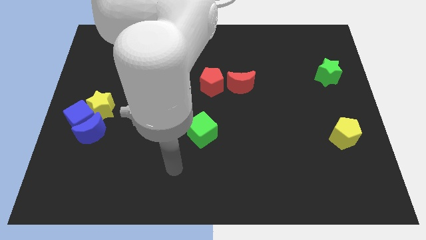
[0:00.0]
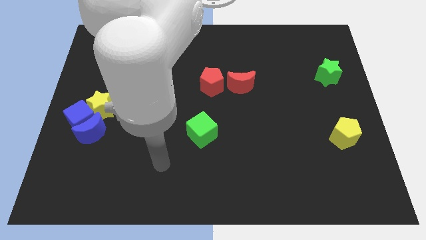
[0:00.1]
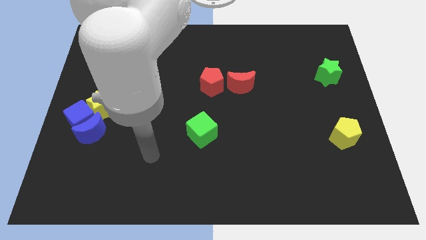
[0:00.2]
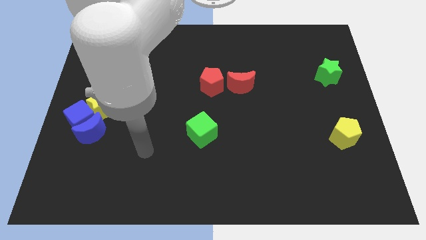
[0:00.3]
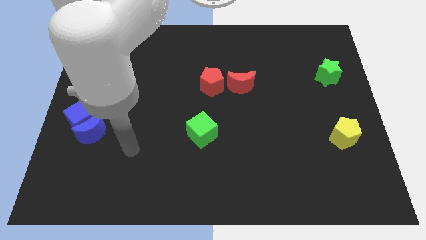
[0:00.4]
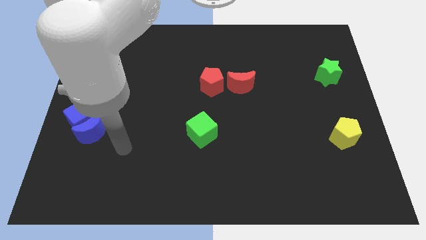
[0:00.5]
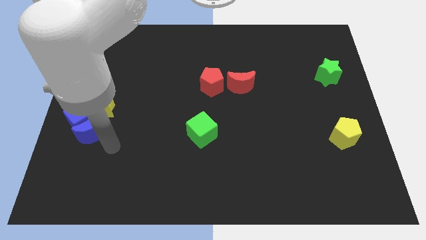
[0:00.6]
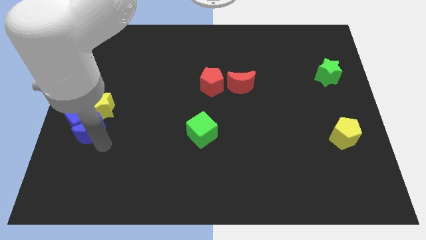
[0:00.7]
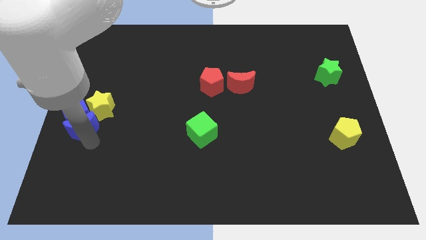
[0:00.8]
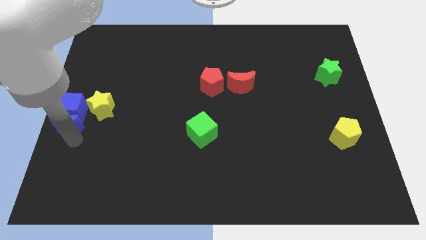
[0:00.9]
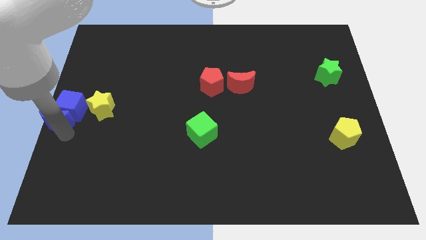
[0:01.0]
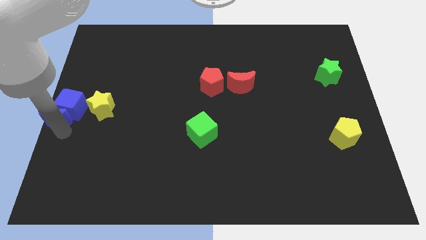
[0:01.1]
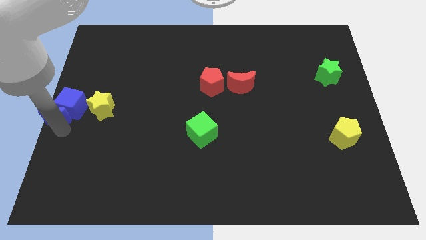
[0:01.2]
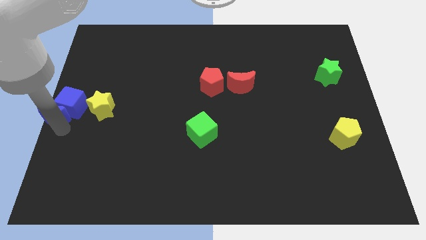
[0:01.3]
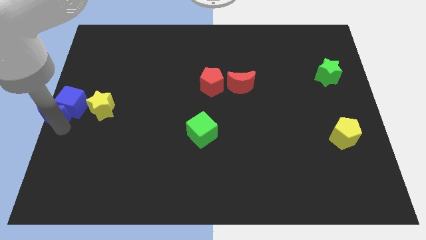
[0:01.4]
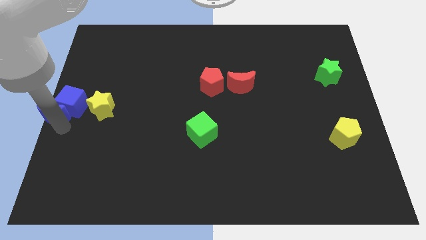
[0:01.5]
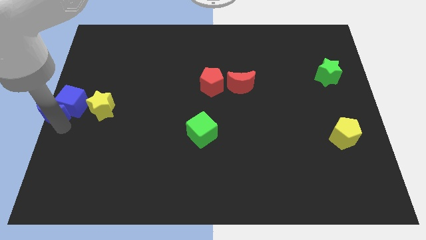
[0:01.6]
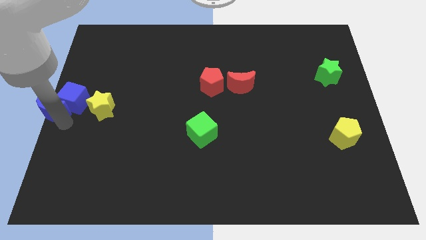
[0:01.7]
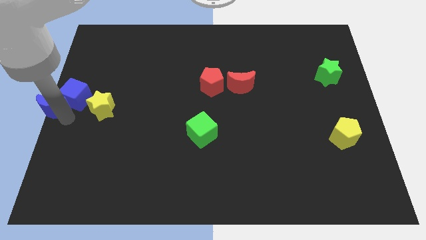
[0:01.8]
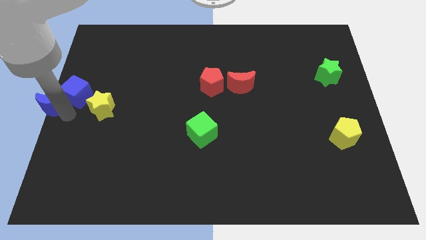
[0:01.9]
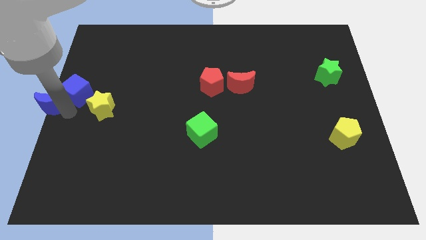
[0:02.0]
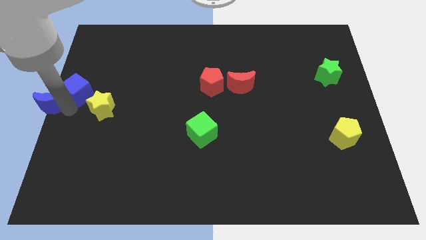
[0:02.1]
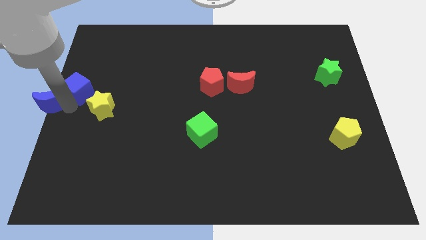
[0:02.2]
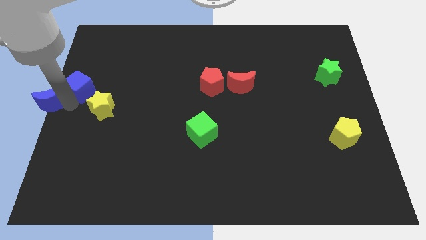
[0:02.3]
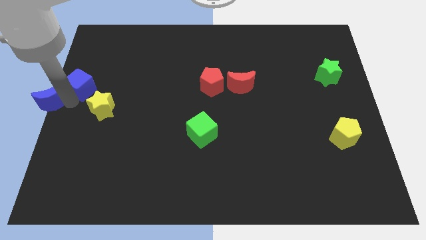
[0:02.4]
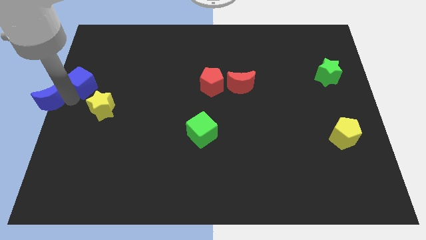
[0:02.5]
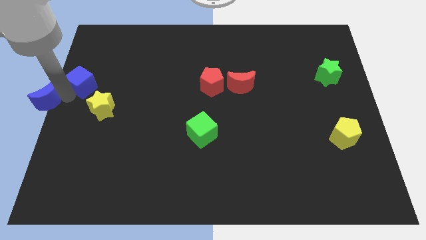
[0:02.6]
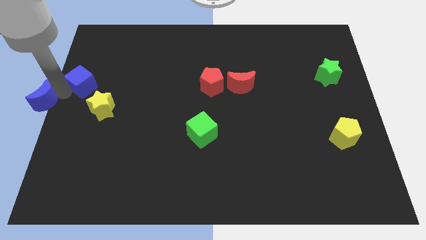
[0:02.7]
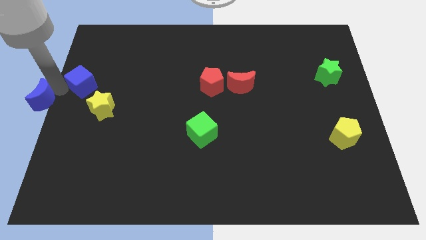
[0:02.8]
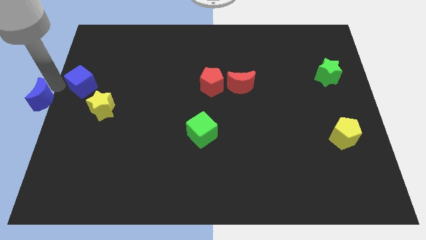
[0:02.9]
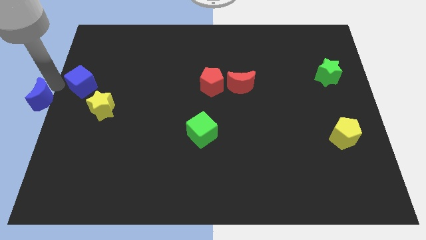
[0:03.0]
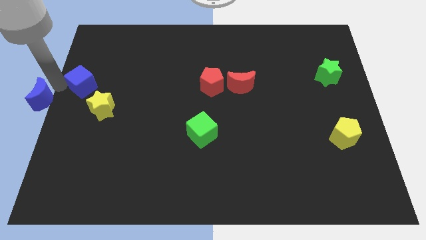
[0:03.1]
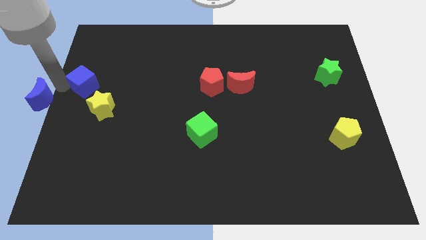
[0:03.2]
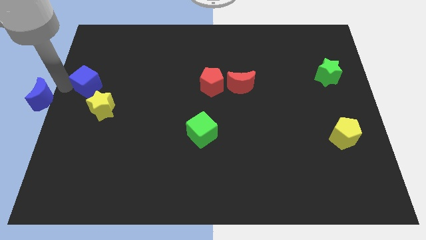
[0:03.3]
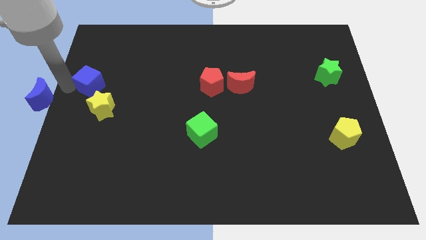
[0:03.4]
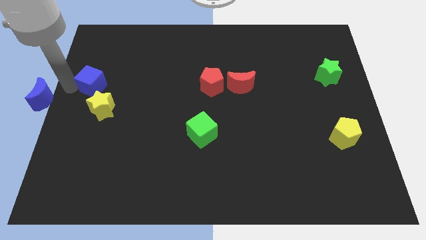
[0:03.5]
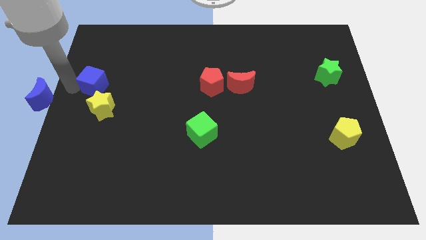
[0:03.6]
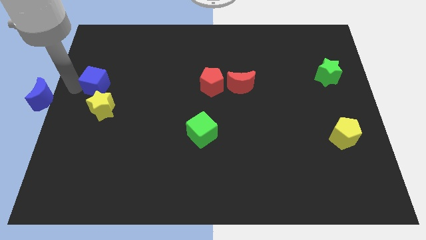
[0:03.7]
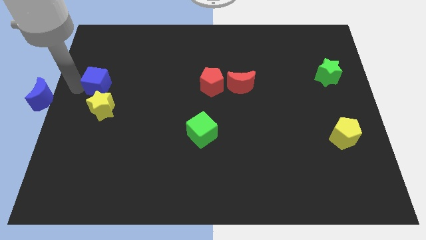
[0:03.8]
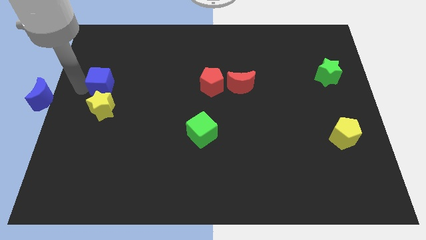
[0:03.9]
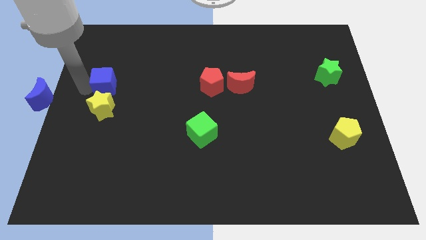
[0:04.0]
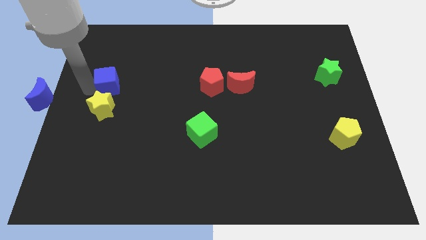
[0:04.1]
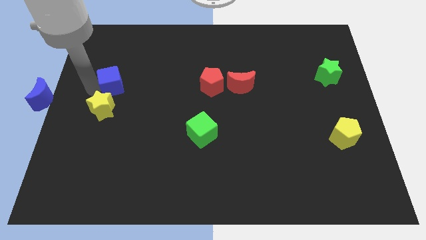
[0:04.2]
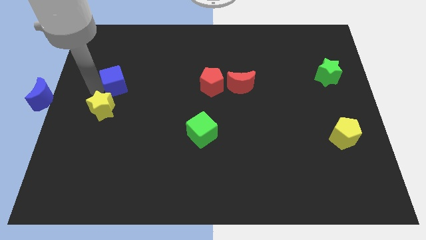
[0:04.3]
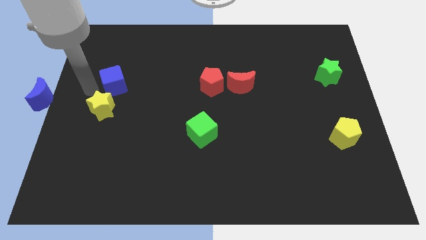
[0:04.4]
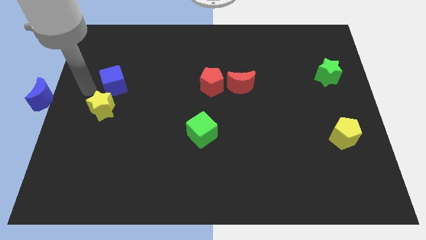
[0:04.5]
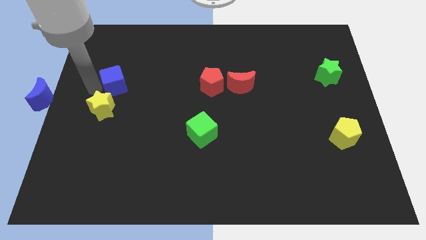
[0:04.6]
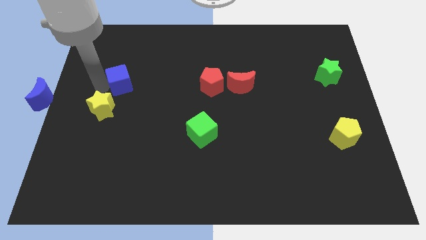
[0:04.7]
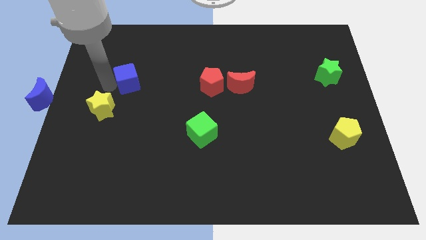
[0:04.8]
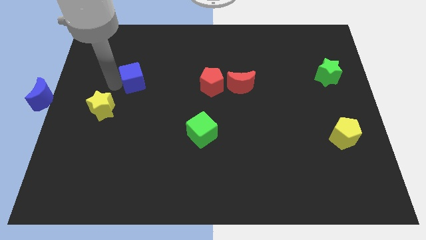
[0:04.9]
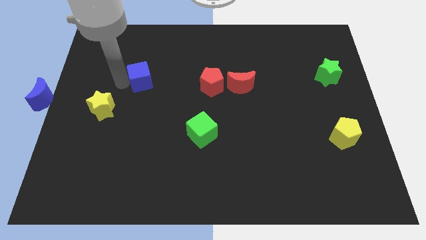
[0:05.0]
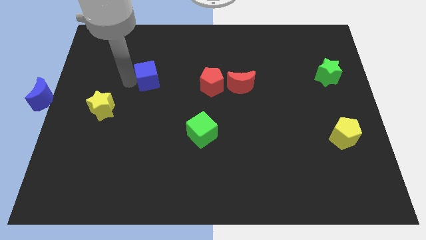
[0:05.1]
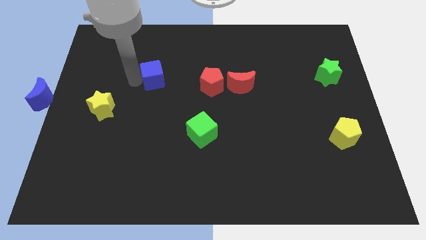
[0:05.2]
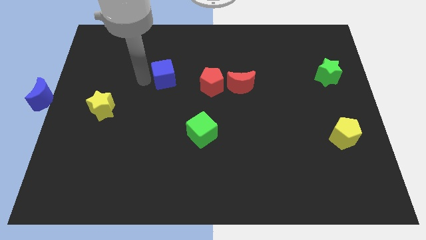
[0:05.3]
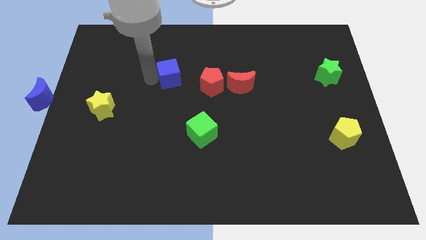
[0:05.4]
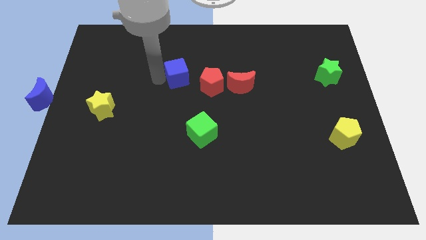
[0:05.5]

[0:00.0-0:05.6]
put the blue cube diagonally up and to the left of the red pentagon

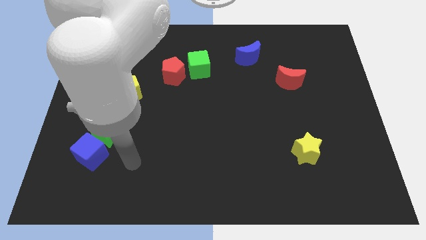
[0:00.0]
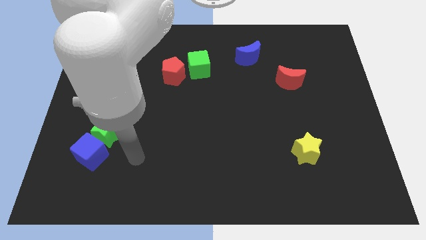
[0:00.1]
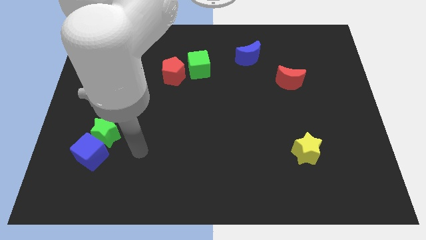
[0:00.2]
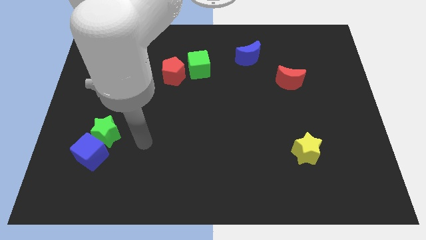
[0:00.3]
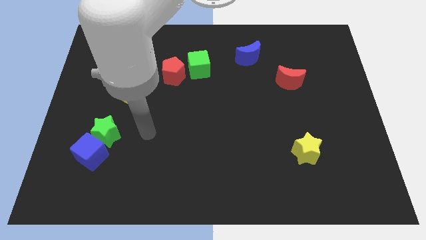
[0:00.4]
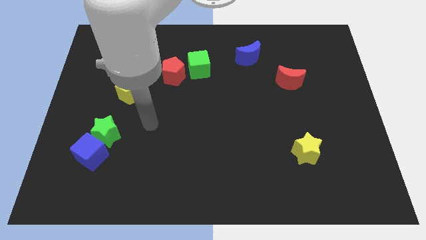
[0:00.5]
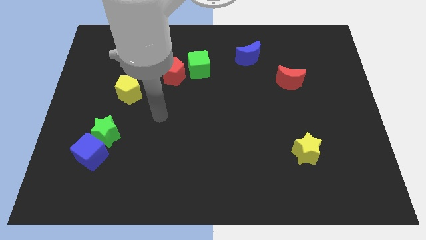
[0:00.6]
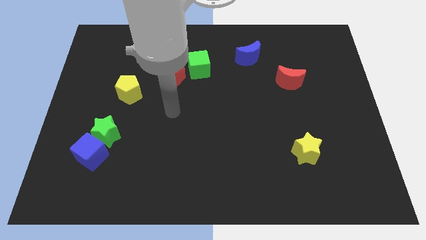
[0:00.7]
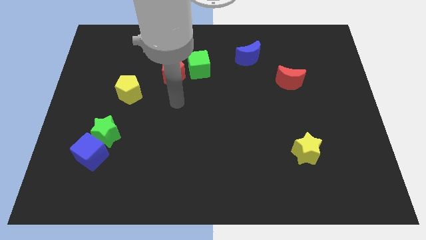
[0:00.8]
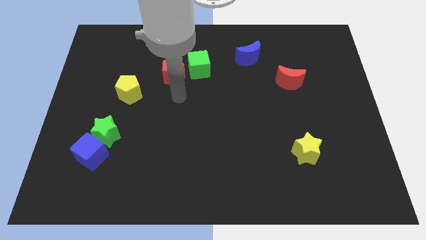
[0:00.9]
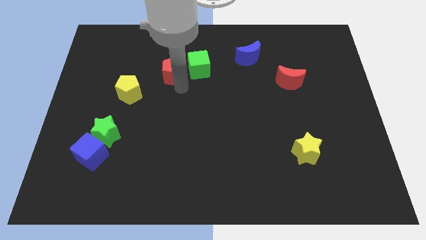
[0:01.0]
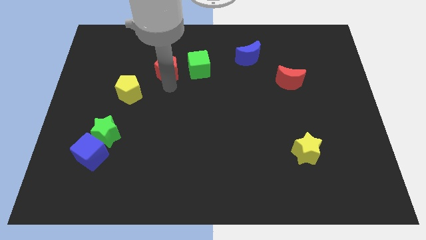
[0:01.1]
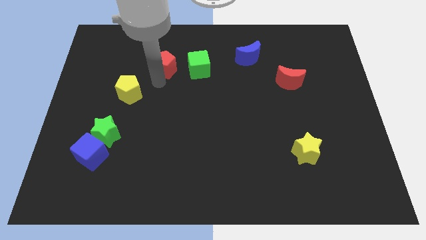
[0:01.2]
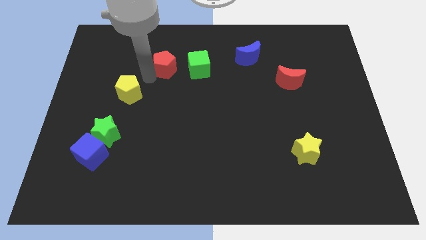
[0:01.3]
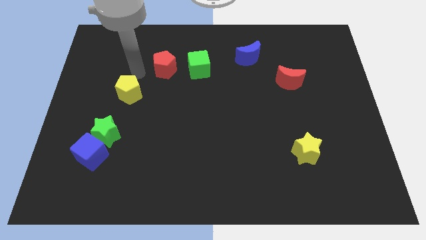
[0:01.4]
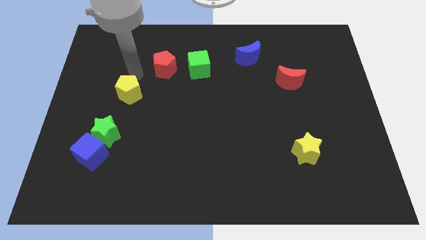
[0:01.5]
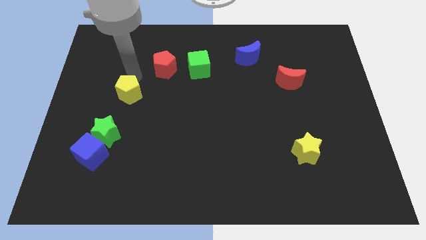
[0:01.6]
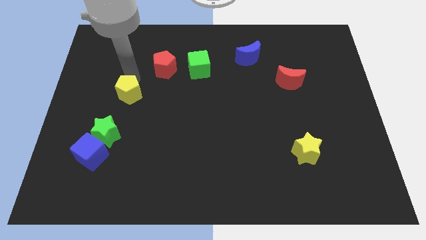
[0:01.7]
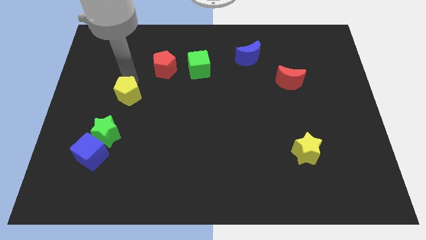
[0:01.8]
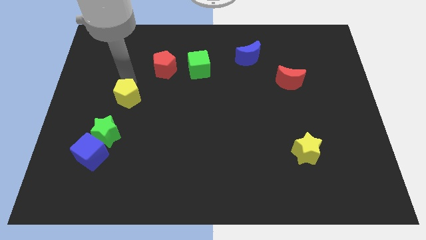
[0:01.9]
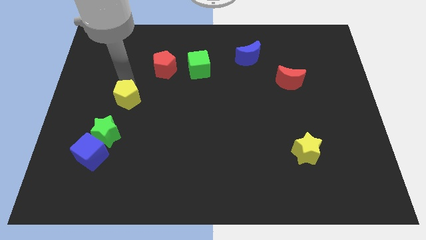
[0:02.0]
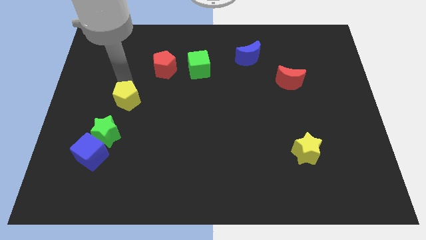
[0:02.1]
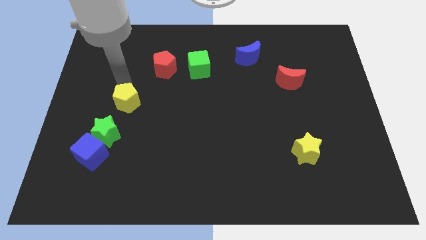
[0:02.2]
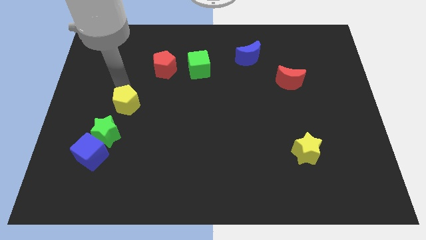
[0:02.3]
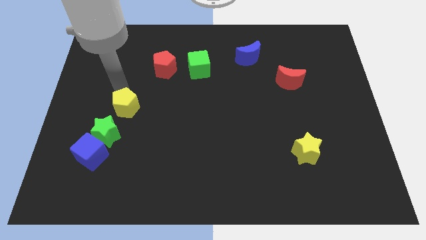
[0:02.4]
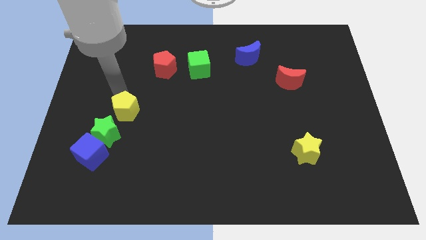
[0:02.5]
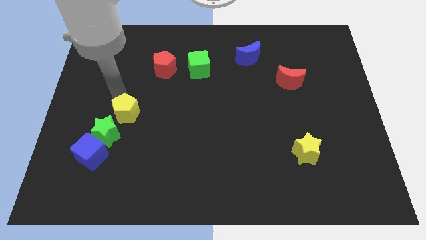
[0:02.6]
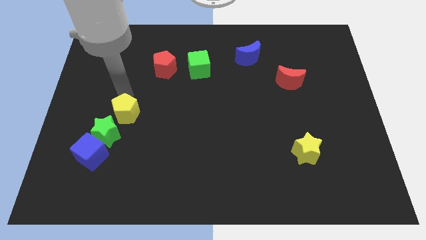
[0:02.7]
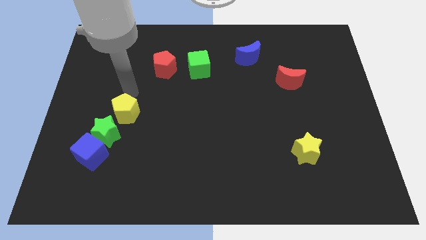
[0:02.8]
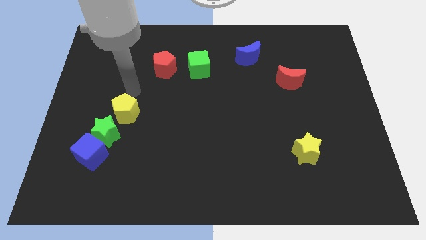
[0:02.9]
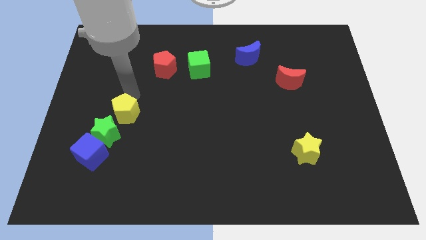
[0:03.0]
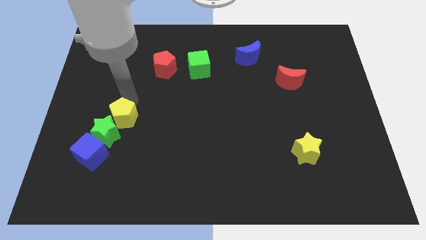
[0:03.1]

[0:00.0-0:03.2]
slide the yellow pentagon to the top right of the blue cube
